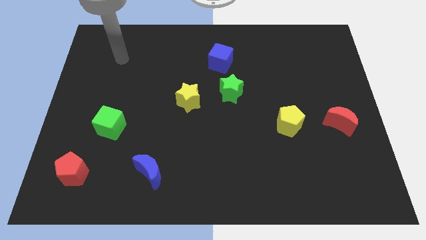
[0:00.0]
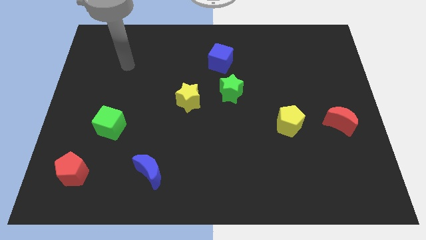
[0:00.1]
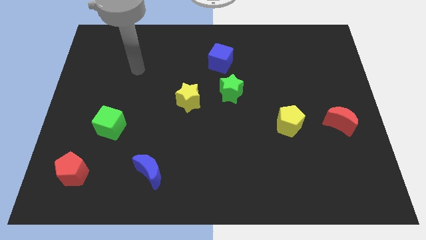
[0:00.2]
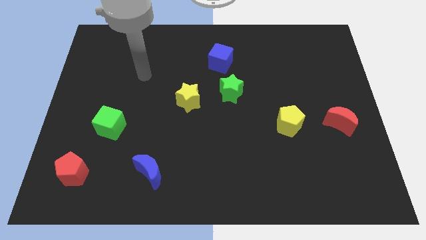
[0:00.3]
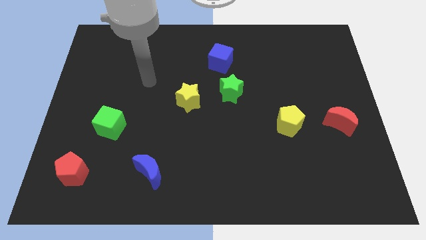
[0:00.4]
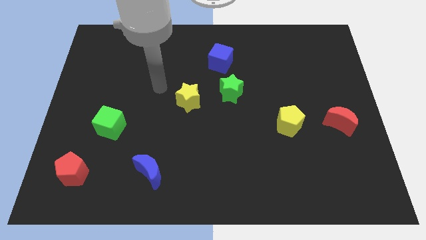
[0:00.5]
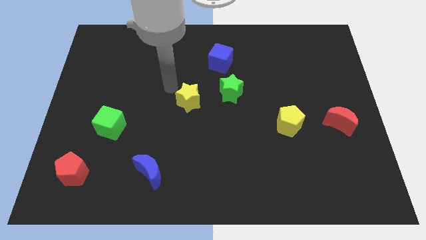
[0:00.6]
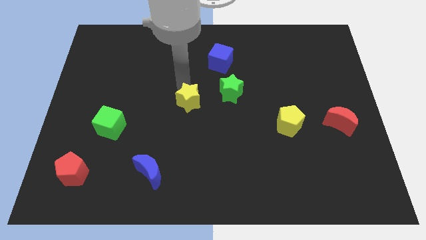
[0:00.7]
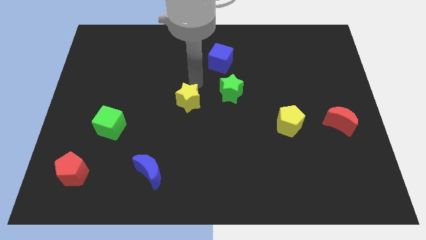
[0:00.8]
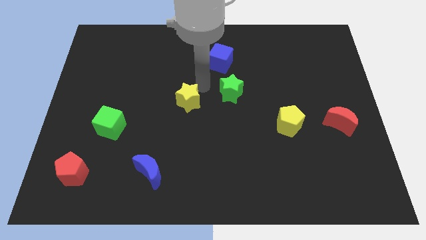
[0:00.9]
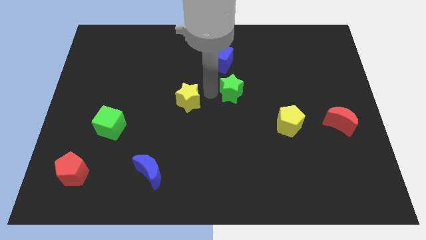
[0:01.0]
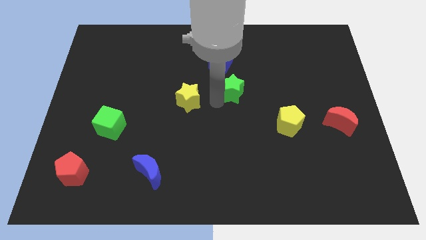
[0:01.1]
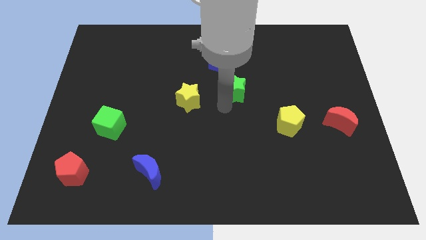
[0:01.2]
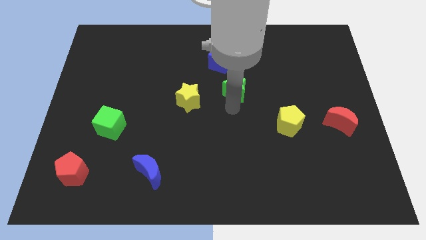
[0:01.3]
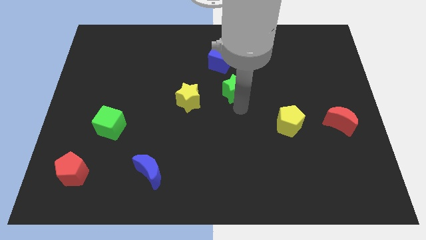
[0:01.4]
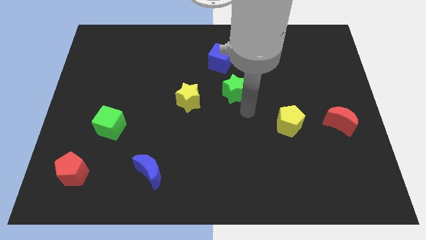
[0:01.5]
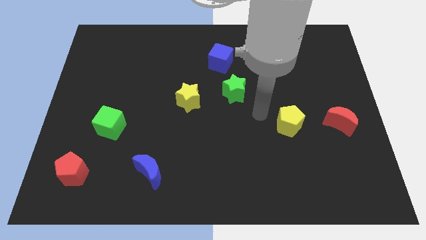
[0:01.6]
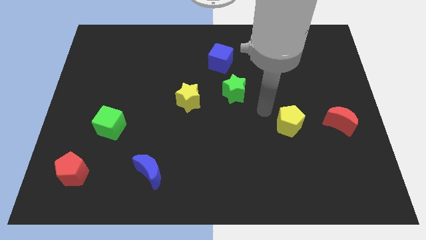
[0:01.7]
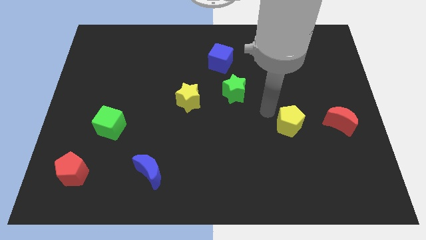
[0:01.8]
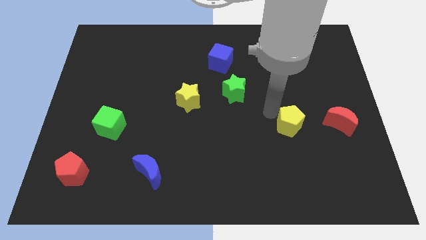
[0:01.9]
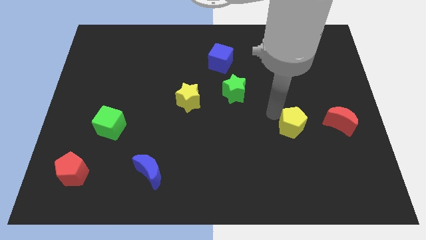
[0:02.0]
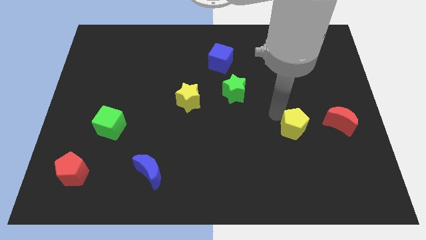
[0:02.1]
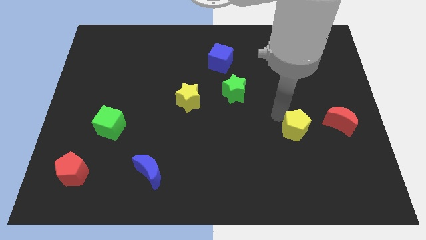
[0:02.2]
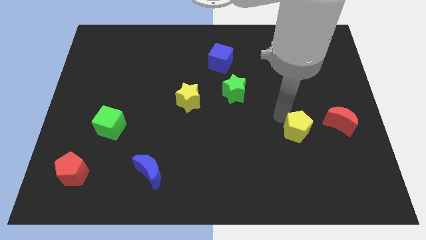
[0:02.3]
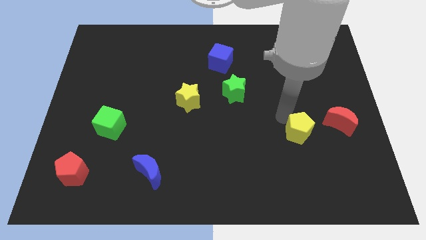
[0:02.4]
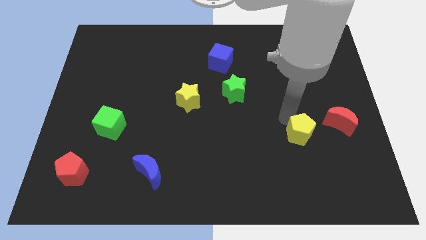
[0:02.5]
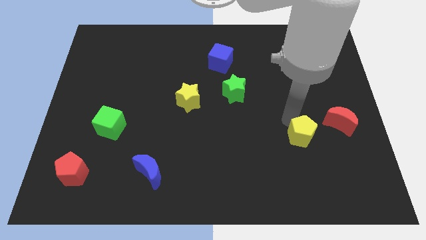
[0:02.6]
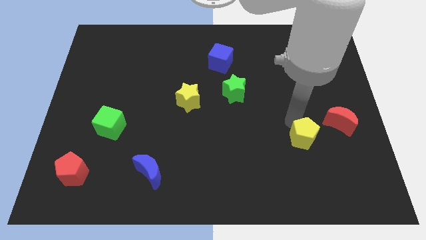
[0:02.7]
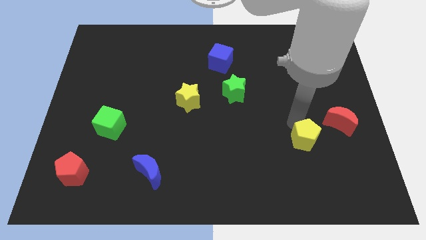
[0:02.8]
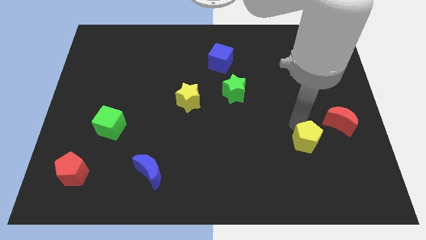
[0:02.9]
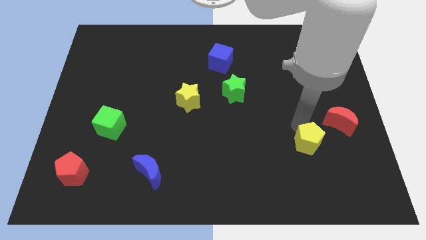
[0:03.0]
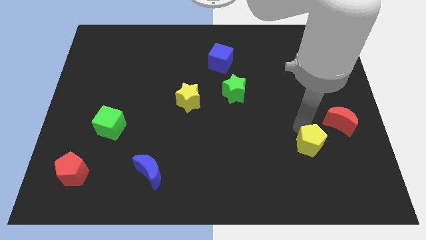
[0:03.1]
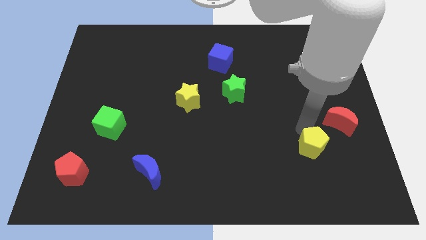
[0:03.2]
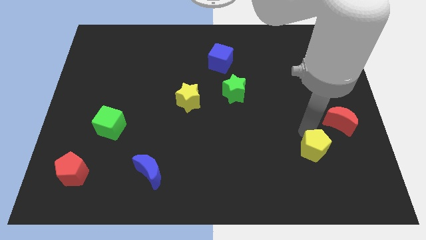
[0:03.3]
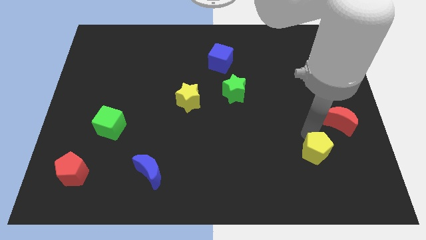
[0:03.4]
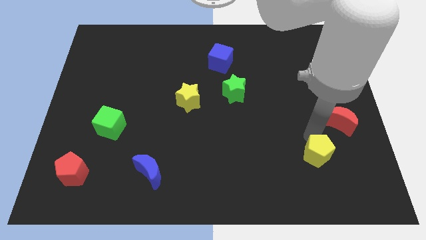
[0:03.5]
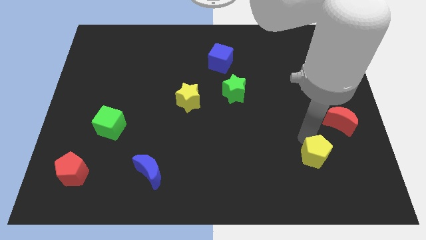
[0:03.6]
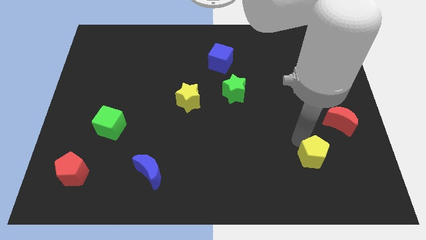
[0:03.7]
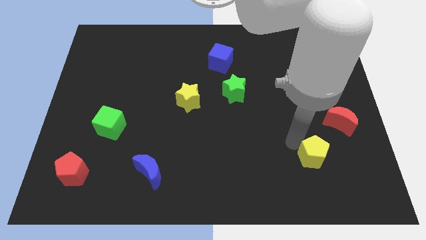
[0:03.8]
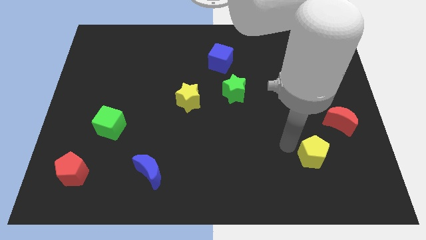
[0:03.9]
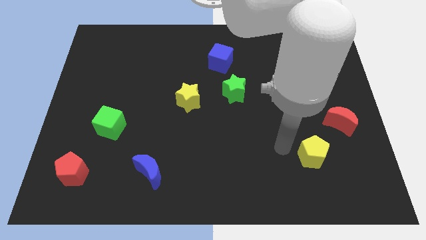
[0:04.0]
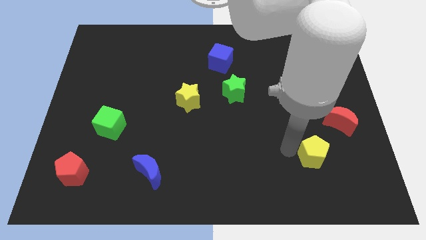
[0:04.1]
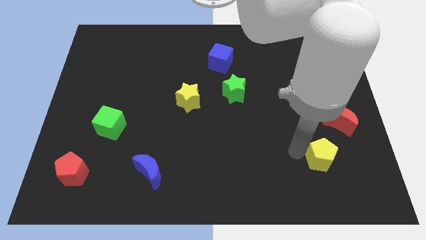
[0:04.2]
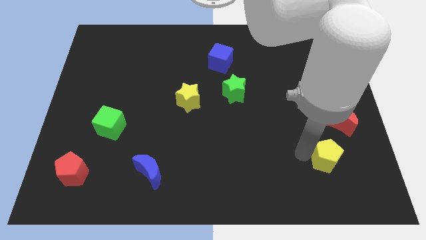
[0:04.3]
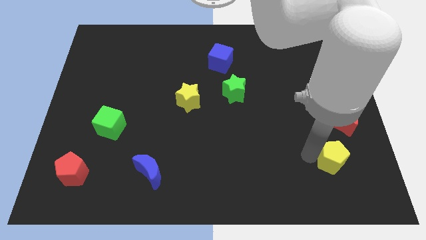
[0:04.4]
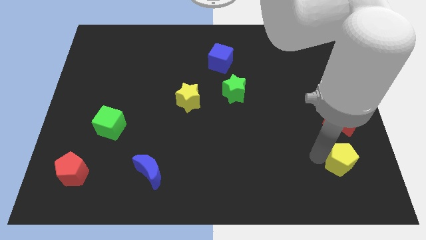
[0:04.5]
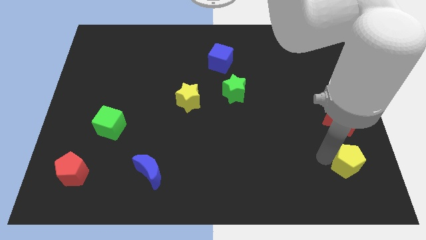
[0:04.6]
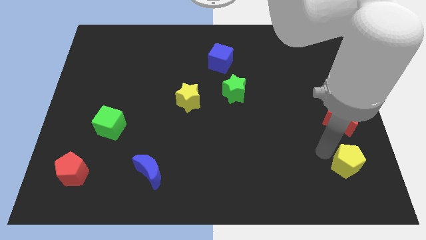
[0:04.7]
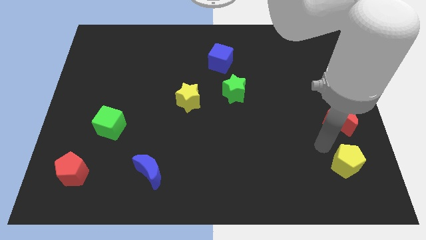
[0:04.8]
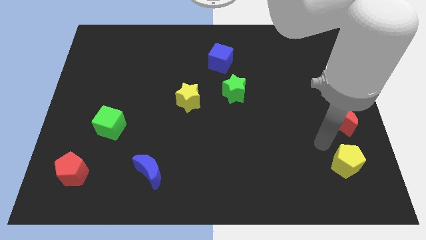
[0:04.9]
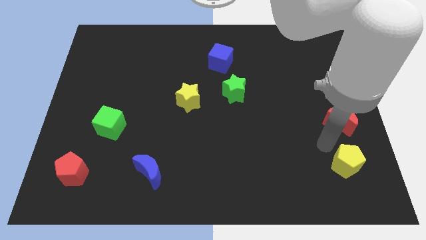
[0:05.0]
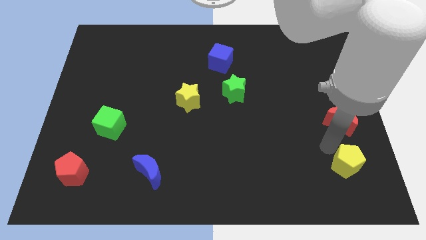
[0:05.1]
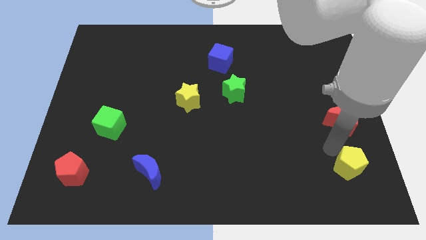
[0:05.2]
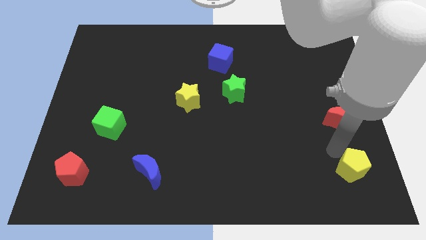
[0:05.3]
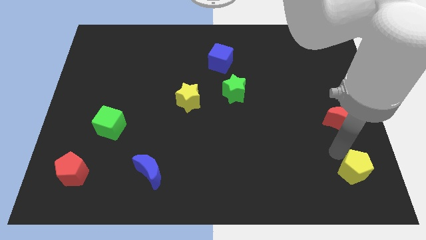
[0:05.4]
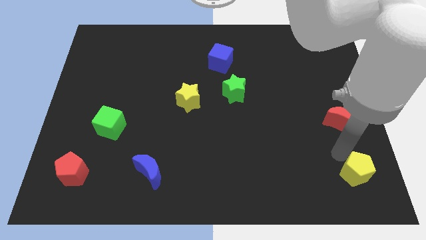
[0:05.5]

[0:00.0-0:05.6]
slide the yellow pentagon to the bottom right corner

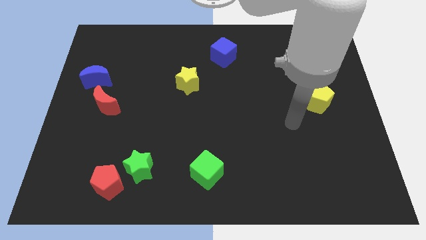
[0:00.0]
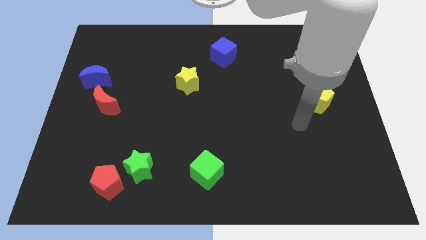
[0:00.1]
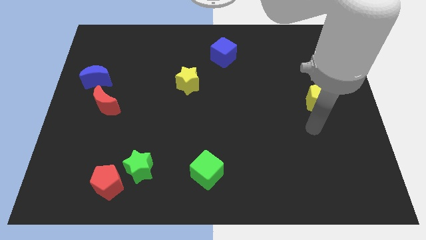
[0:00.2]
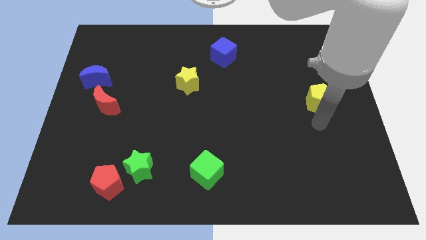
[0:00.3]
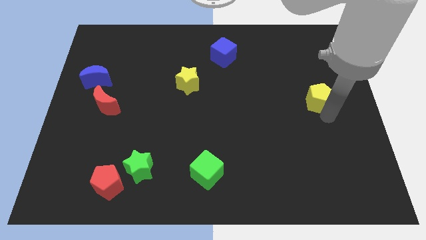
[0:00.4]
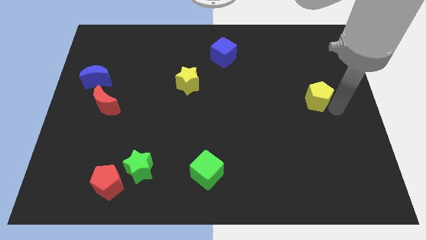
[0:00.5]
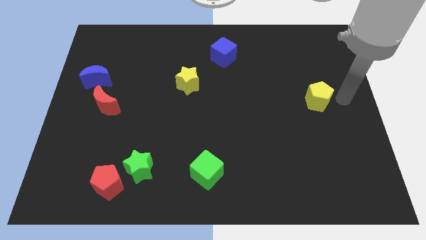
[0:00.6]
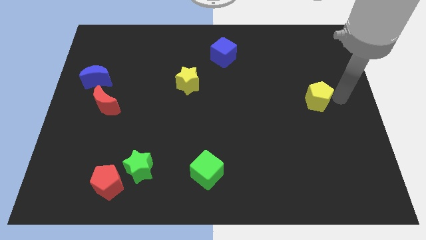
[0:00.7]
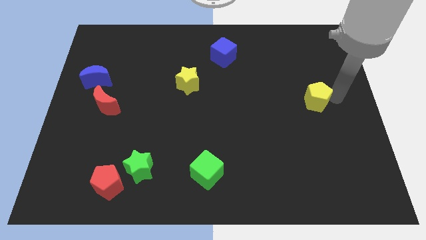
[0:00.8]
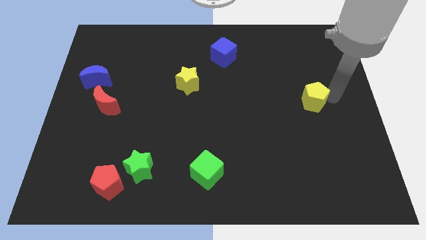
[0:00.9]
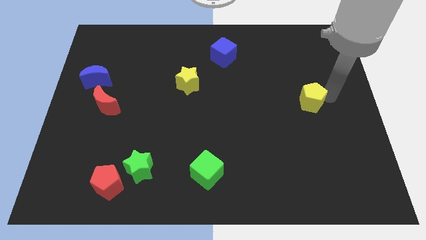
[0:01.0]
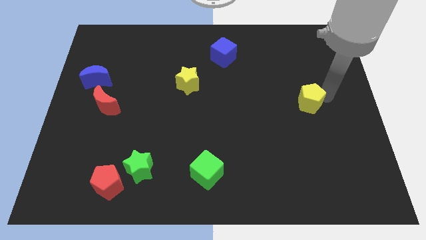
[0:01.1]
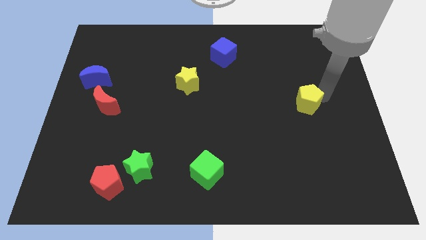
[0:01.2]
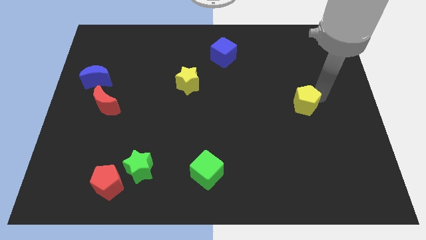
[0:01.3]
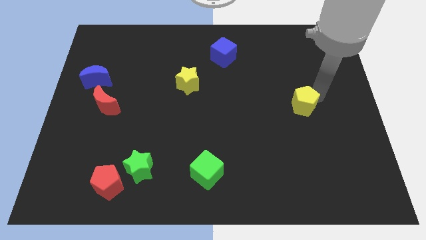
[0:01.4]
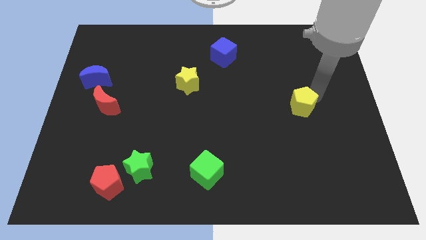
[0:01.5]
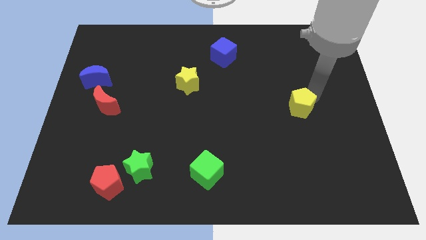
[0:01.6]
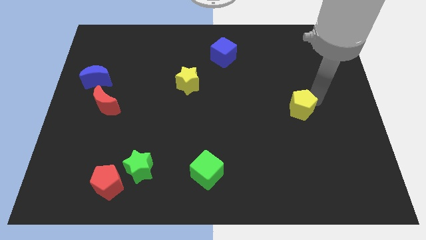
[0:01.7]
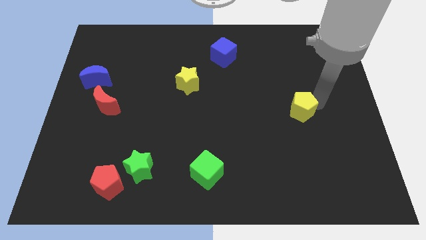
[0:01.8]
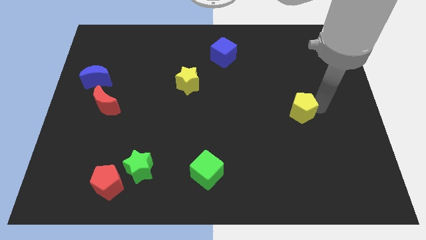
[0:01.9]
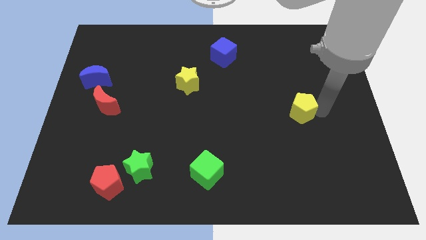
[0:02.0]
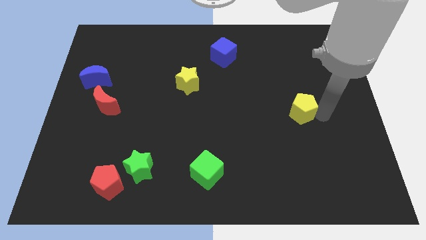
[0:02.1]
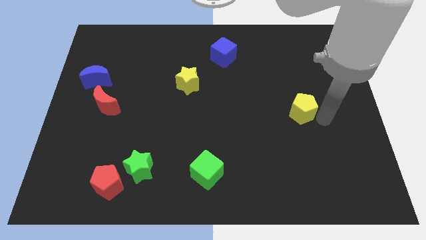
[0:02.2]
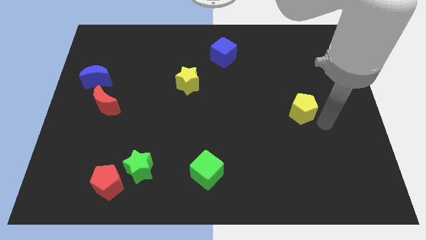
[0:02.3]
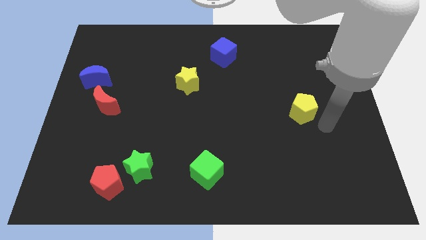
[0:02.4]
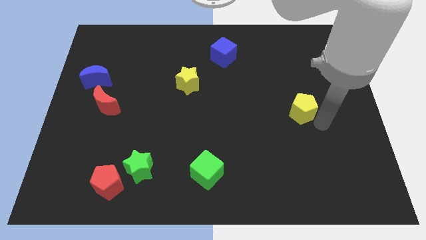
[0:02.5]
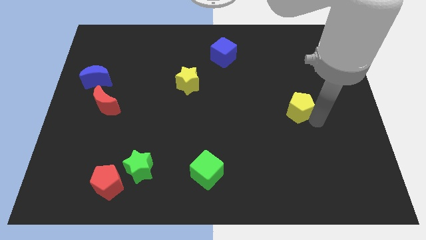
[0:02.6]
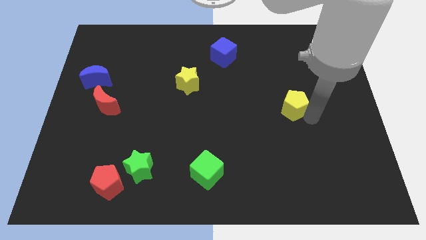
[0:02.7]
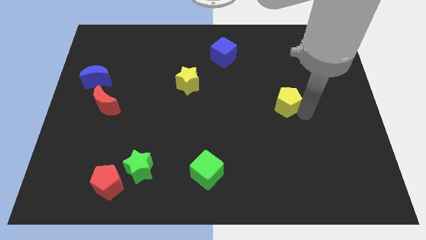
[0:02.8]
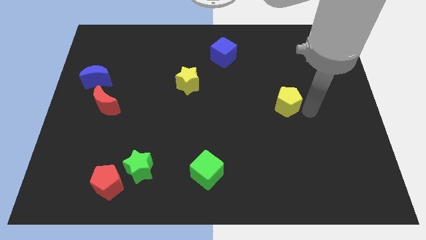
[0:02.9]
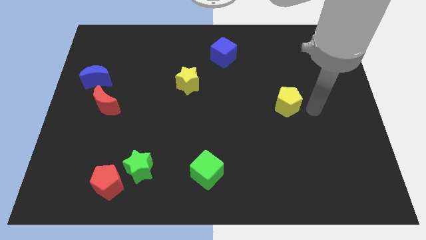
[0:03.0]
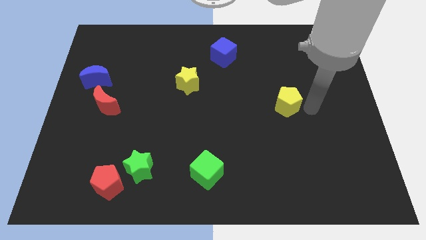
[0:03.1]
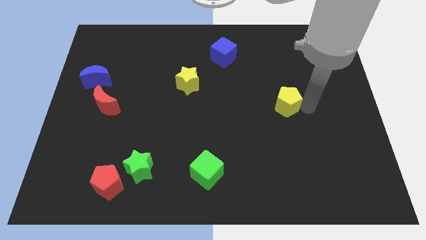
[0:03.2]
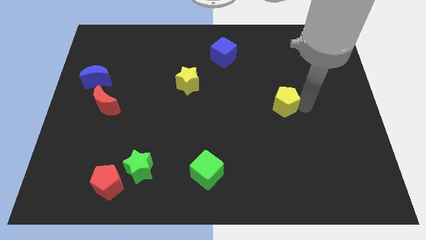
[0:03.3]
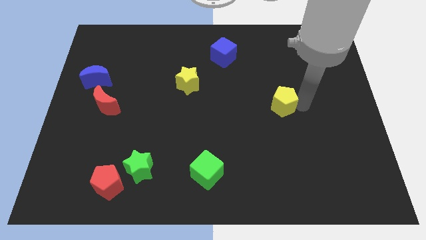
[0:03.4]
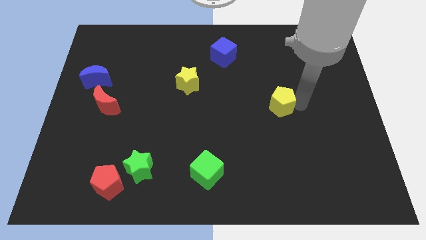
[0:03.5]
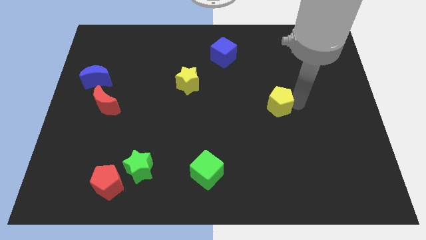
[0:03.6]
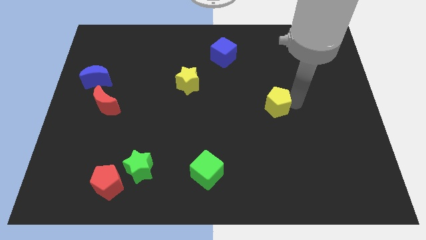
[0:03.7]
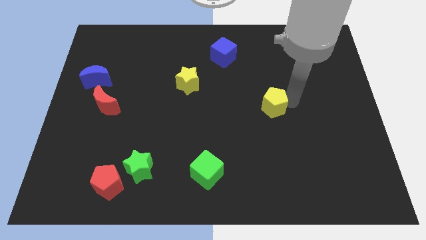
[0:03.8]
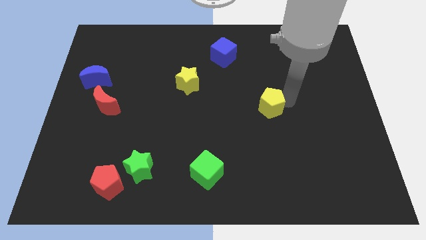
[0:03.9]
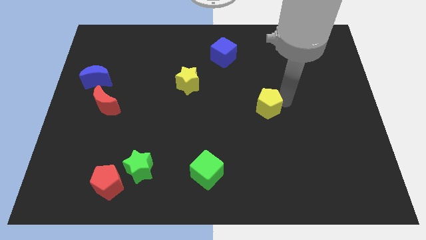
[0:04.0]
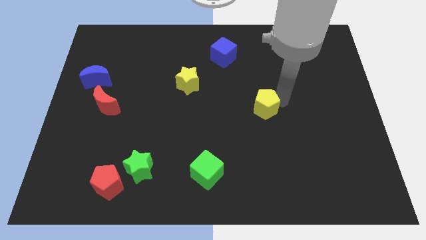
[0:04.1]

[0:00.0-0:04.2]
slide the yellow pentagon to the middle
